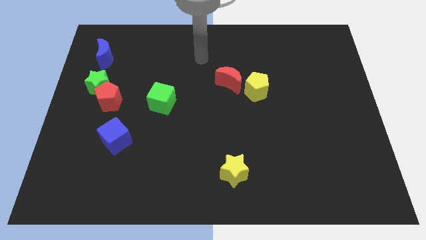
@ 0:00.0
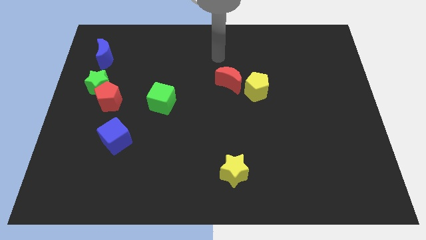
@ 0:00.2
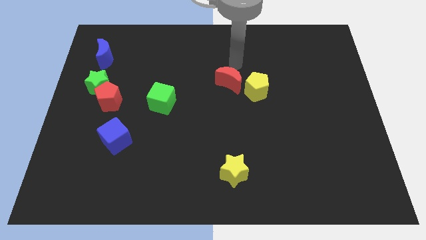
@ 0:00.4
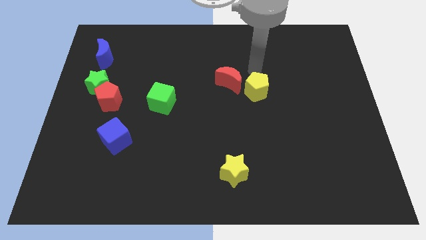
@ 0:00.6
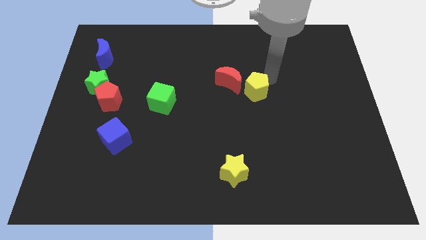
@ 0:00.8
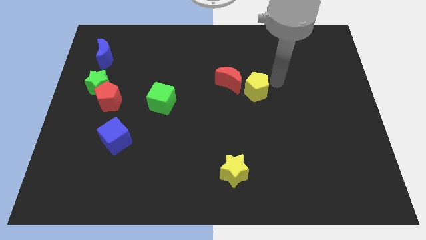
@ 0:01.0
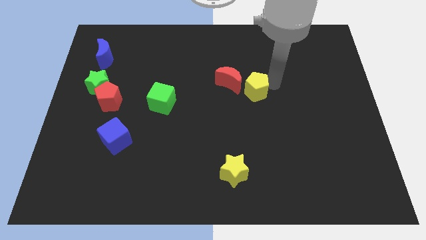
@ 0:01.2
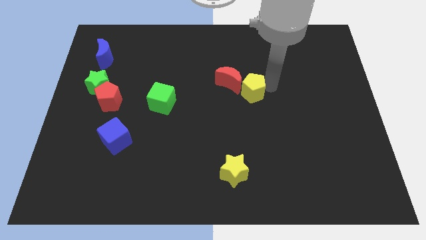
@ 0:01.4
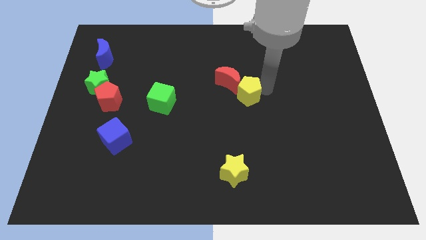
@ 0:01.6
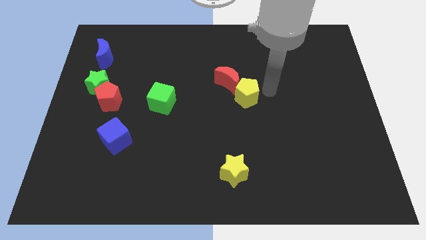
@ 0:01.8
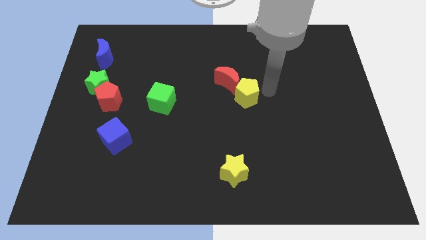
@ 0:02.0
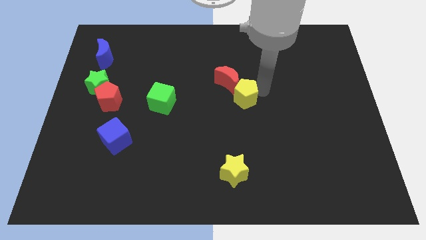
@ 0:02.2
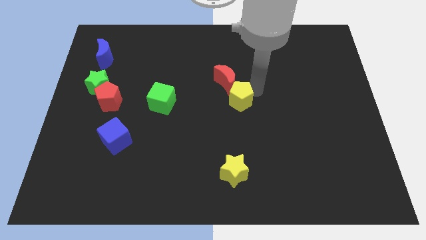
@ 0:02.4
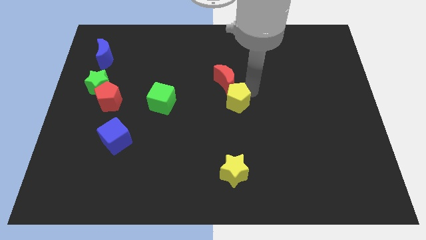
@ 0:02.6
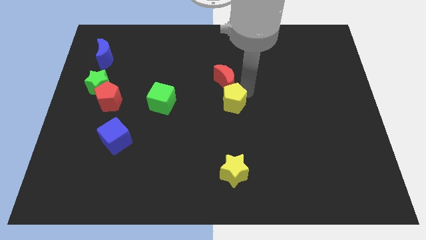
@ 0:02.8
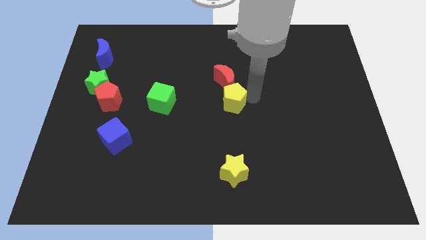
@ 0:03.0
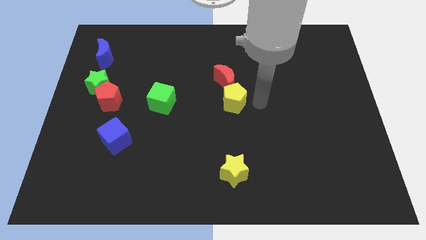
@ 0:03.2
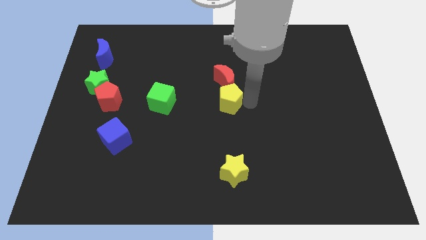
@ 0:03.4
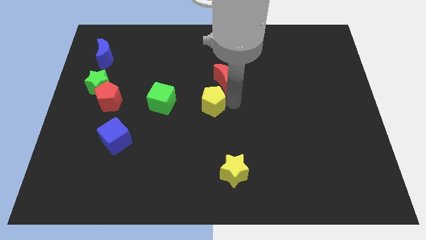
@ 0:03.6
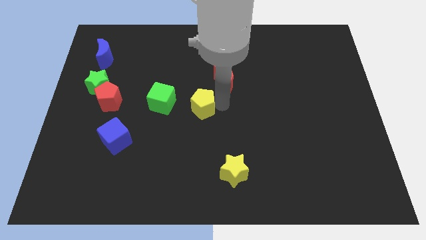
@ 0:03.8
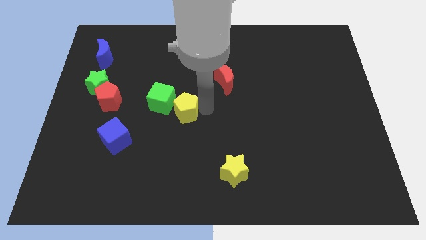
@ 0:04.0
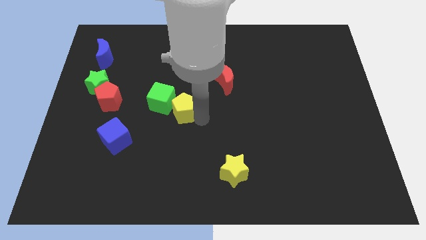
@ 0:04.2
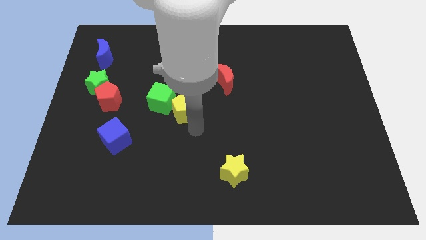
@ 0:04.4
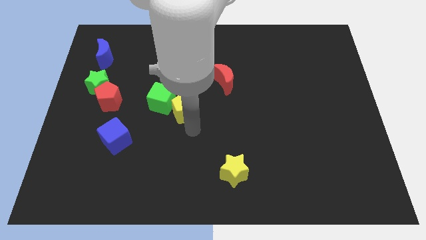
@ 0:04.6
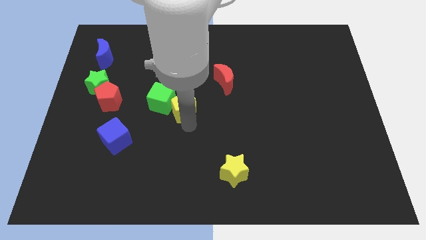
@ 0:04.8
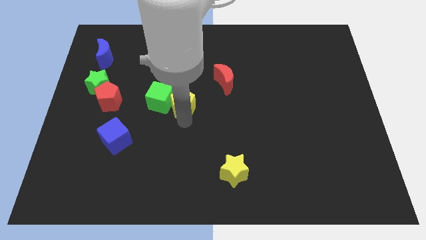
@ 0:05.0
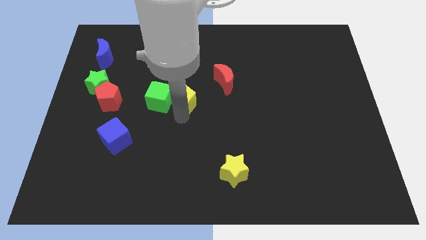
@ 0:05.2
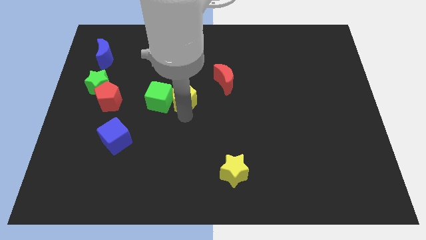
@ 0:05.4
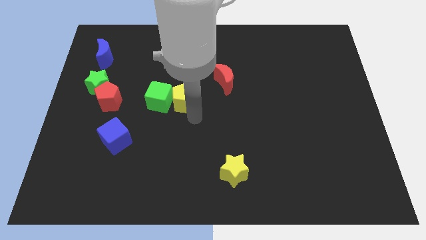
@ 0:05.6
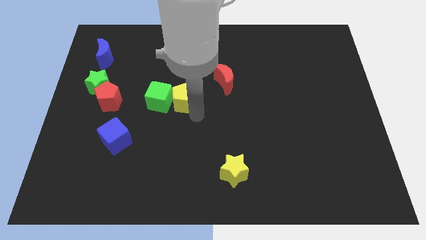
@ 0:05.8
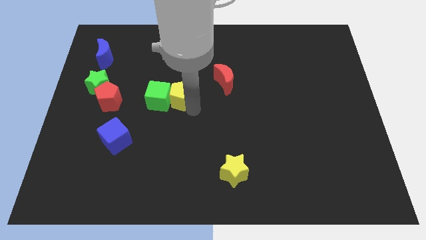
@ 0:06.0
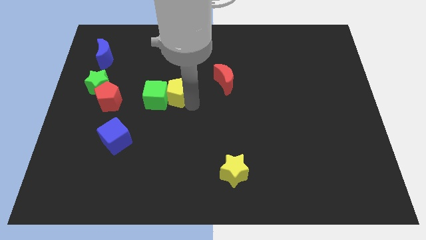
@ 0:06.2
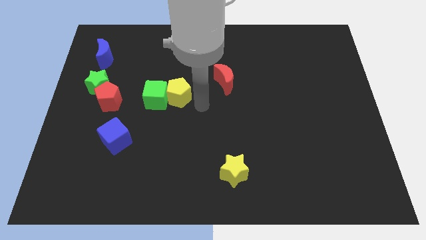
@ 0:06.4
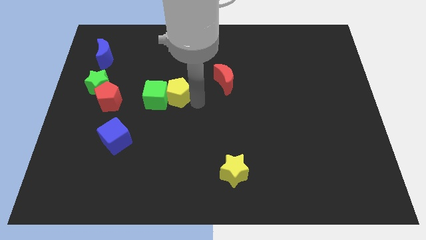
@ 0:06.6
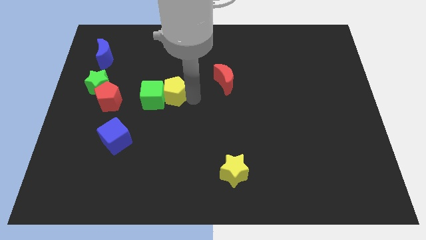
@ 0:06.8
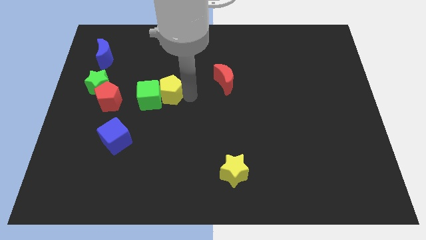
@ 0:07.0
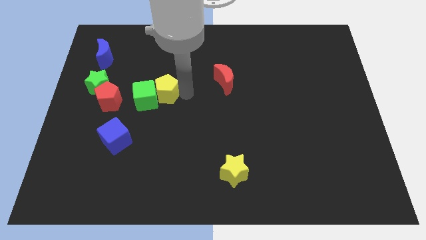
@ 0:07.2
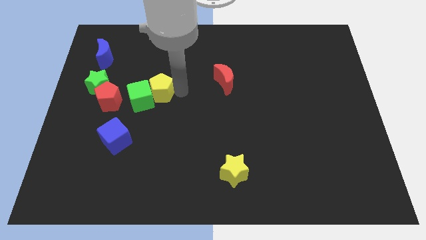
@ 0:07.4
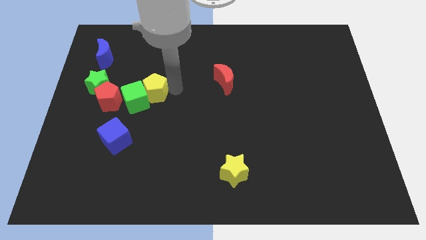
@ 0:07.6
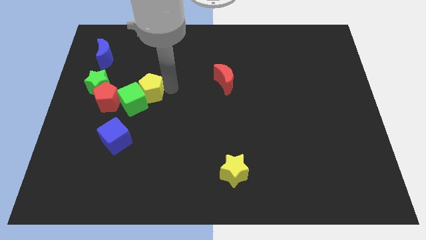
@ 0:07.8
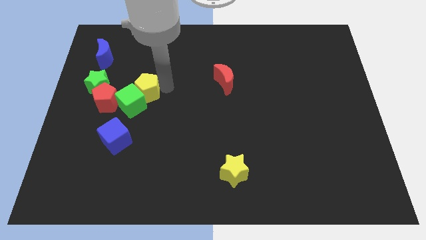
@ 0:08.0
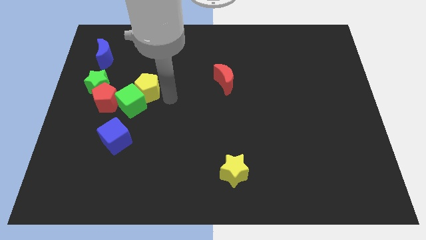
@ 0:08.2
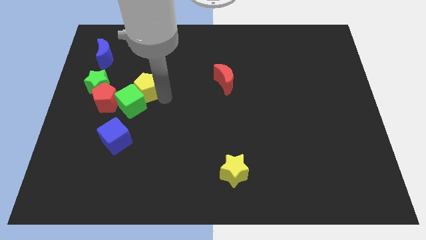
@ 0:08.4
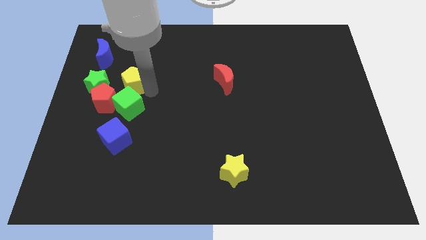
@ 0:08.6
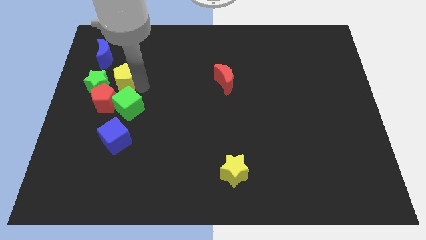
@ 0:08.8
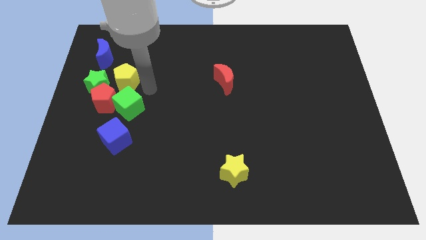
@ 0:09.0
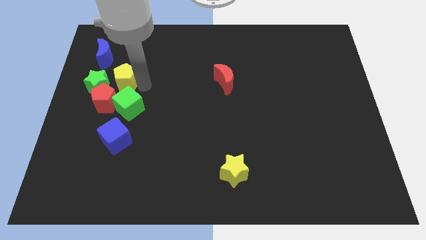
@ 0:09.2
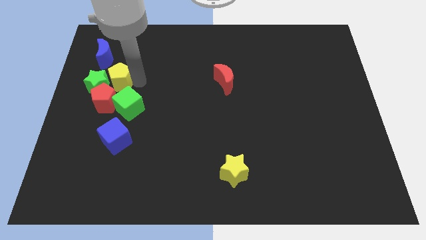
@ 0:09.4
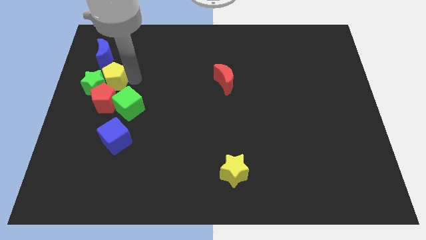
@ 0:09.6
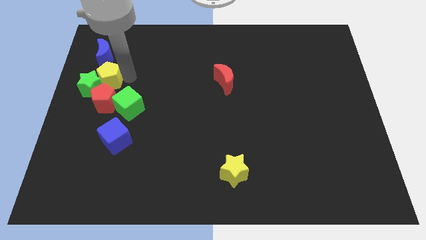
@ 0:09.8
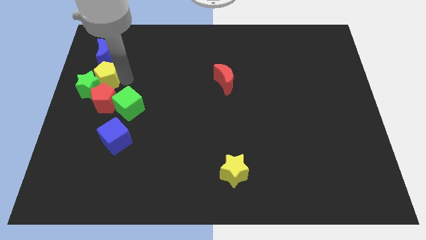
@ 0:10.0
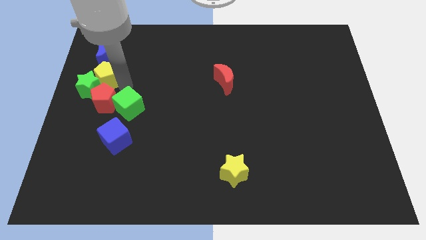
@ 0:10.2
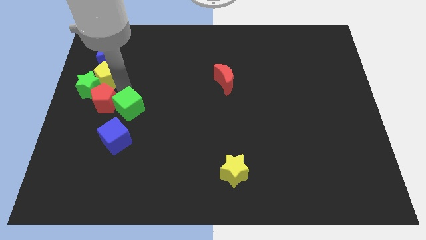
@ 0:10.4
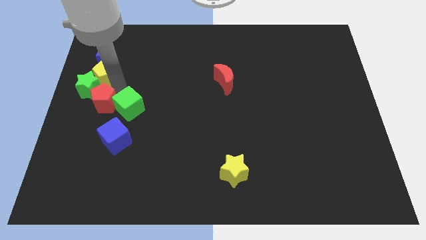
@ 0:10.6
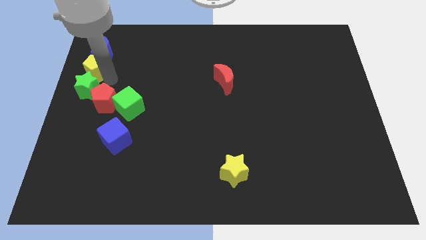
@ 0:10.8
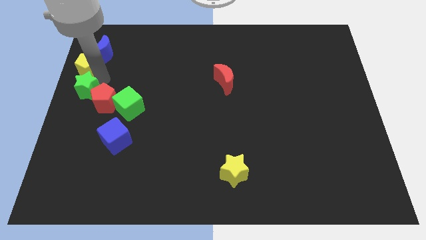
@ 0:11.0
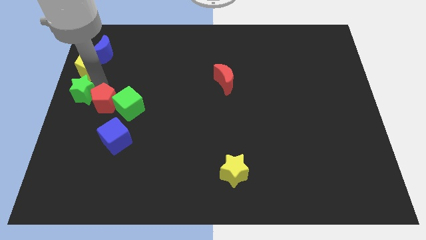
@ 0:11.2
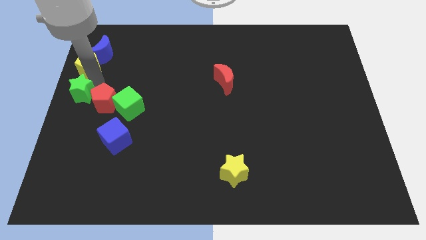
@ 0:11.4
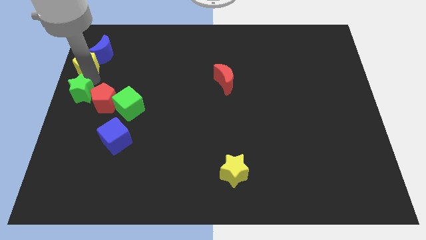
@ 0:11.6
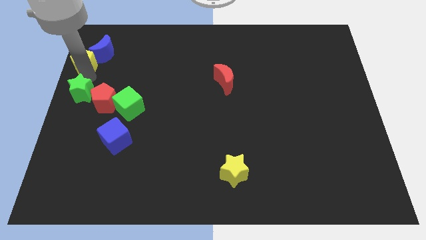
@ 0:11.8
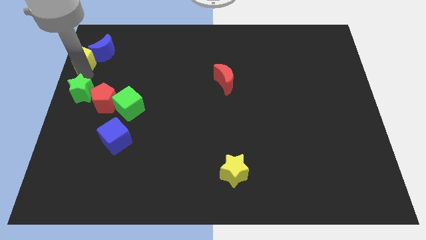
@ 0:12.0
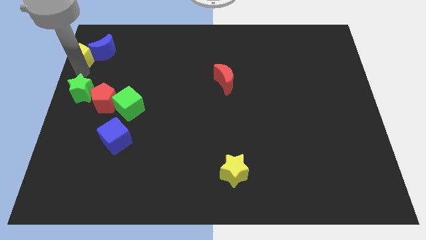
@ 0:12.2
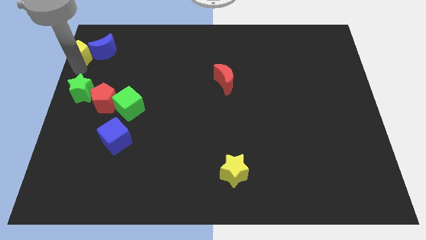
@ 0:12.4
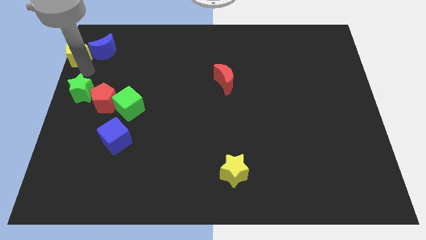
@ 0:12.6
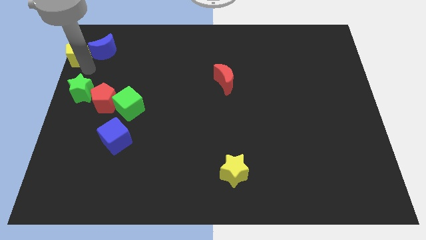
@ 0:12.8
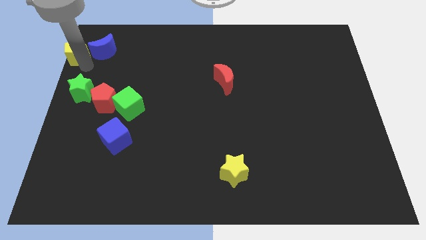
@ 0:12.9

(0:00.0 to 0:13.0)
put the yellow pentagon to the top left corner
